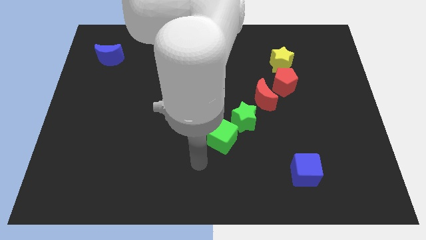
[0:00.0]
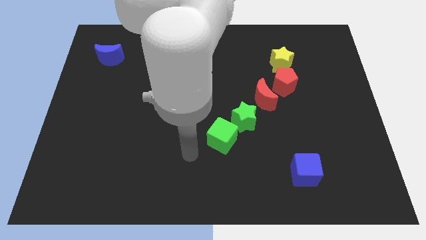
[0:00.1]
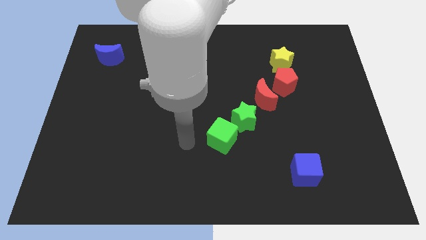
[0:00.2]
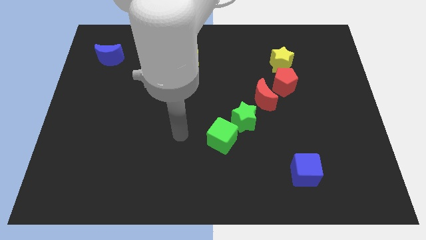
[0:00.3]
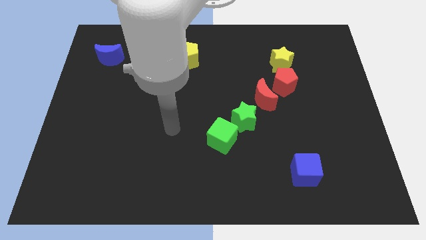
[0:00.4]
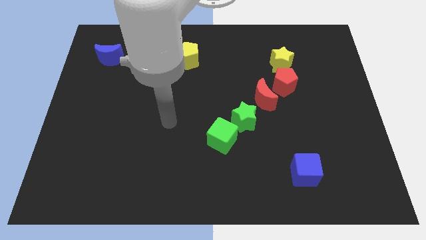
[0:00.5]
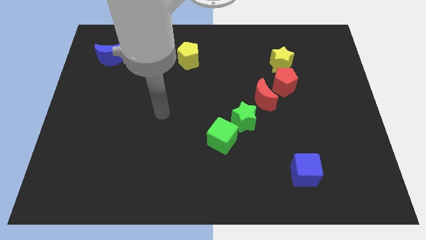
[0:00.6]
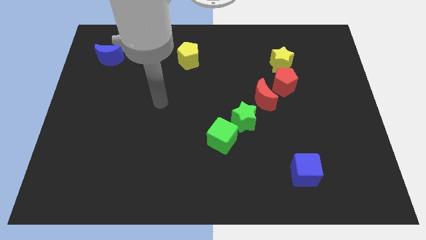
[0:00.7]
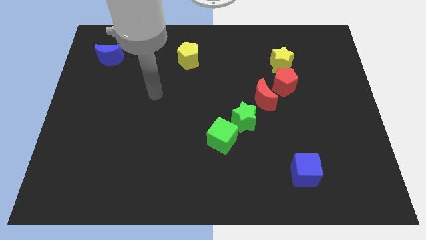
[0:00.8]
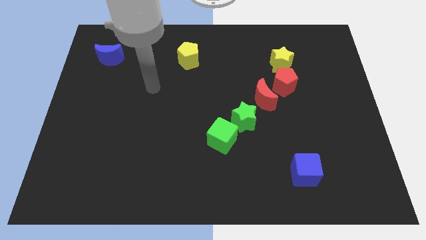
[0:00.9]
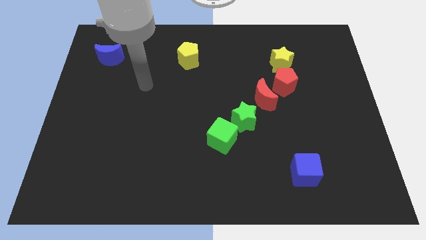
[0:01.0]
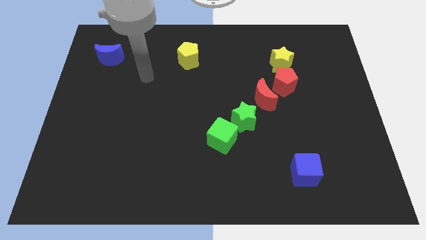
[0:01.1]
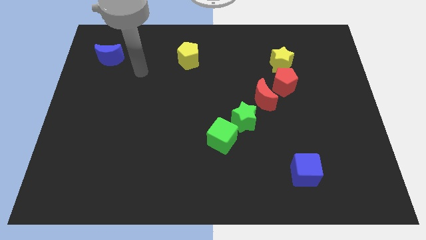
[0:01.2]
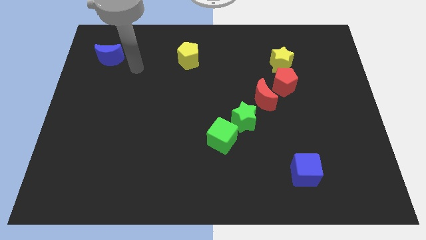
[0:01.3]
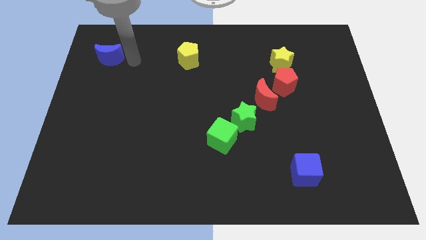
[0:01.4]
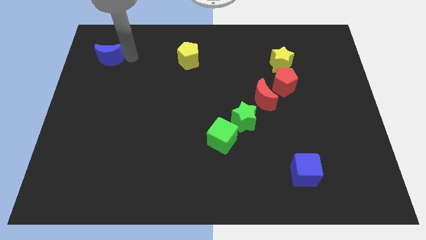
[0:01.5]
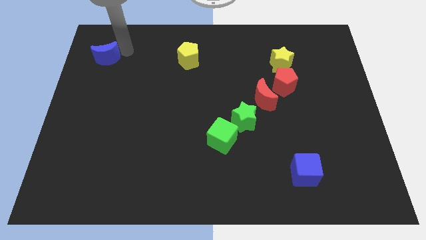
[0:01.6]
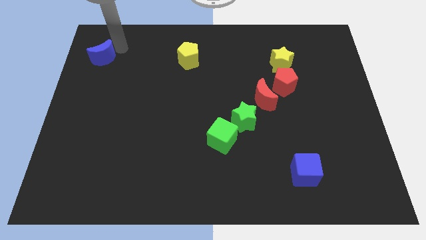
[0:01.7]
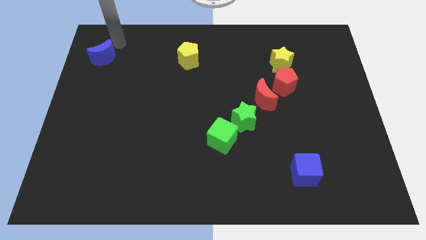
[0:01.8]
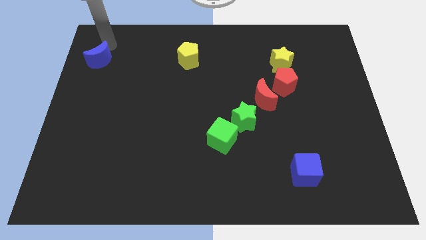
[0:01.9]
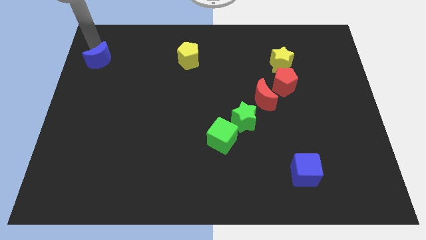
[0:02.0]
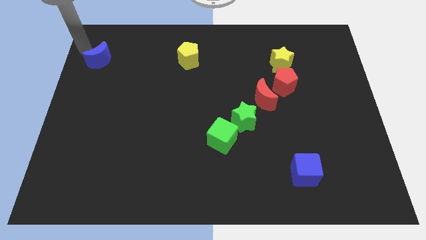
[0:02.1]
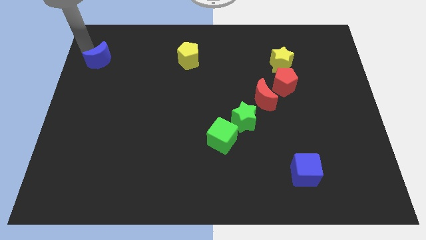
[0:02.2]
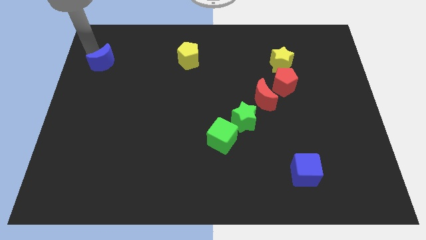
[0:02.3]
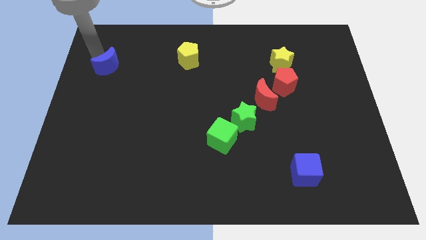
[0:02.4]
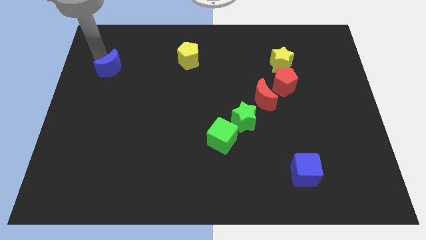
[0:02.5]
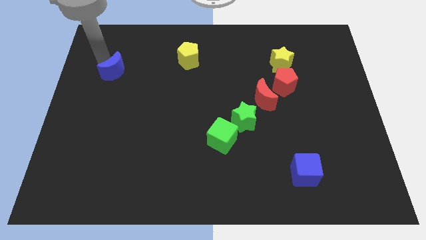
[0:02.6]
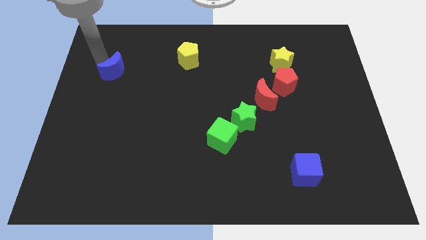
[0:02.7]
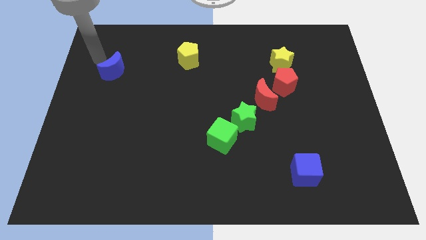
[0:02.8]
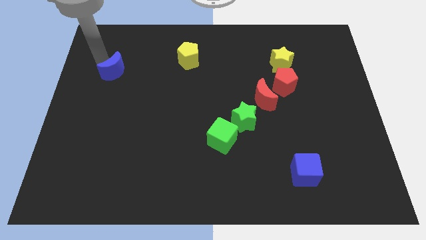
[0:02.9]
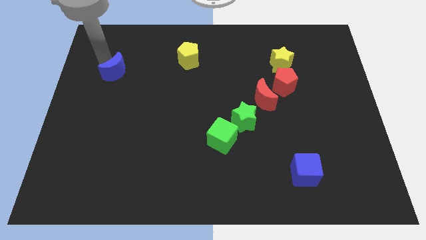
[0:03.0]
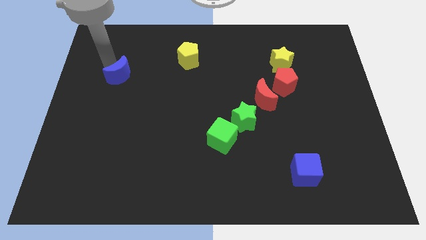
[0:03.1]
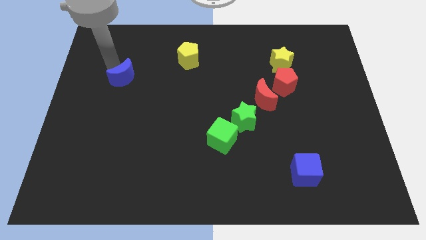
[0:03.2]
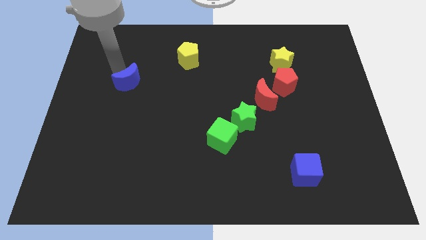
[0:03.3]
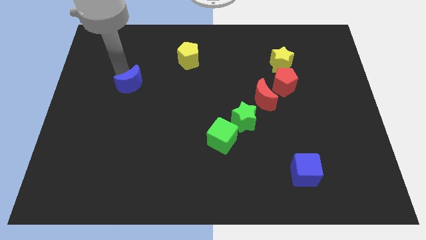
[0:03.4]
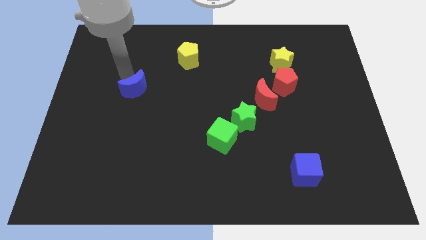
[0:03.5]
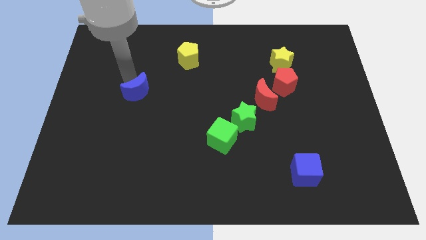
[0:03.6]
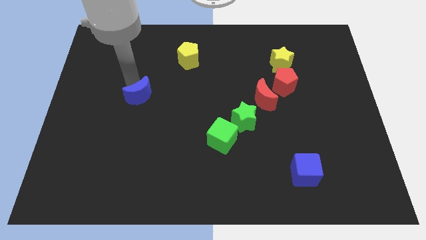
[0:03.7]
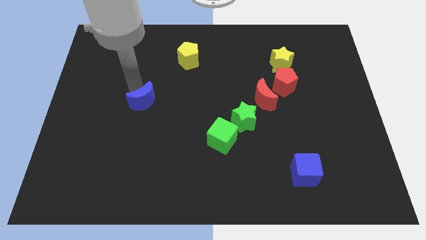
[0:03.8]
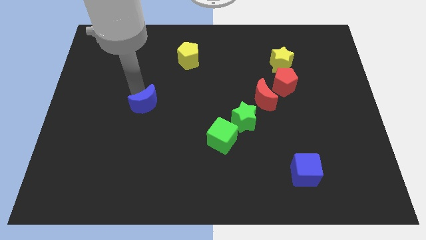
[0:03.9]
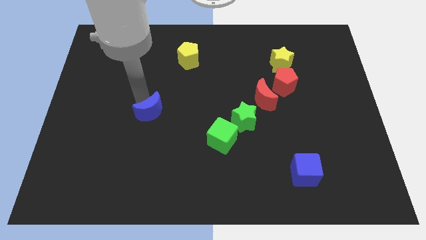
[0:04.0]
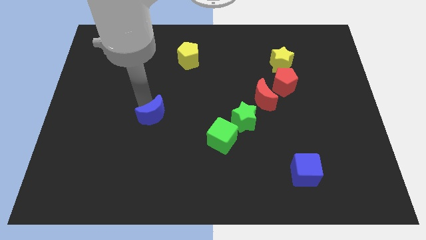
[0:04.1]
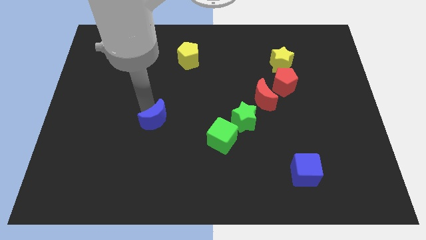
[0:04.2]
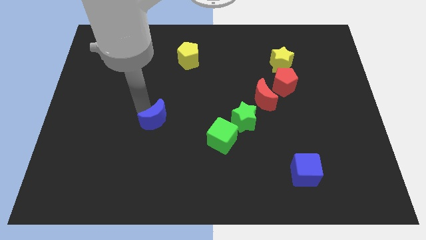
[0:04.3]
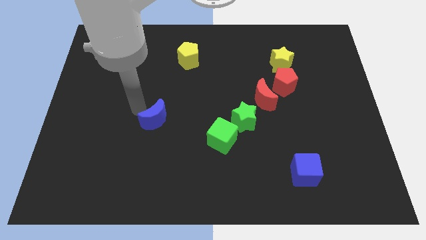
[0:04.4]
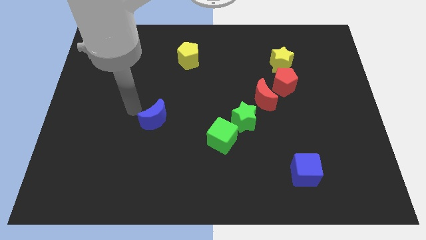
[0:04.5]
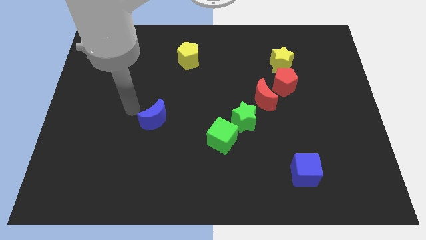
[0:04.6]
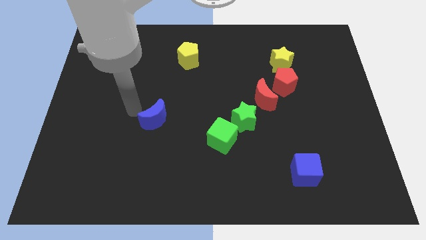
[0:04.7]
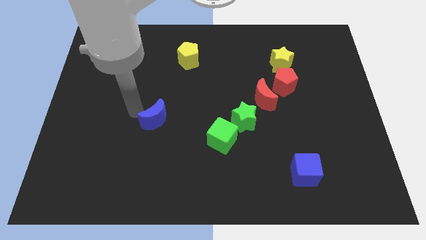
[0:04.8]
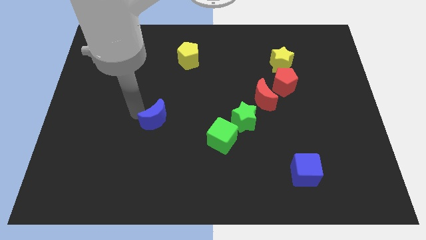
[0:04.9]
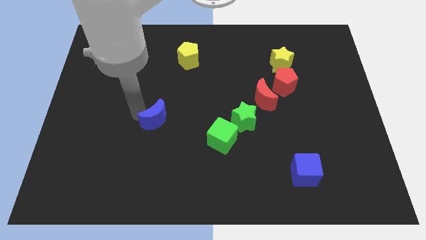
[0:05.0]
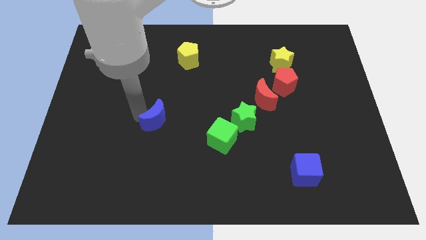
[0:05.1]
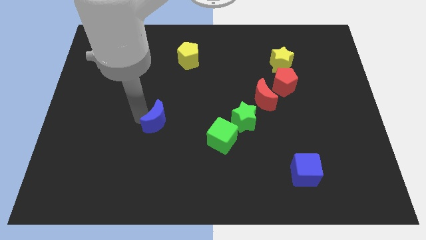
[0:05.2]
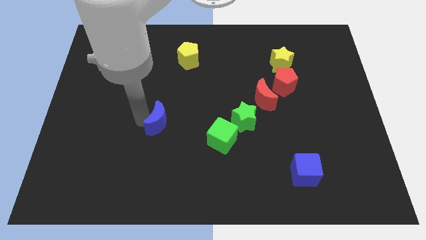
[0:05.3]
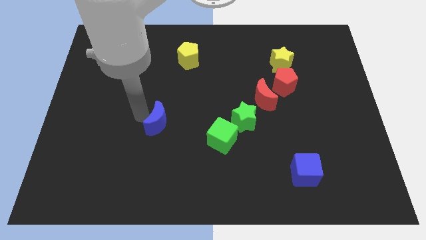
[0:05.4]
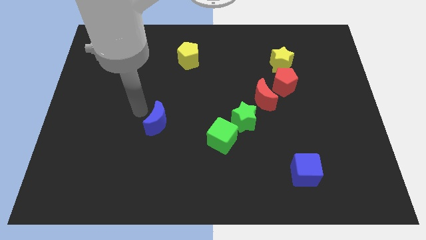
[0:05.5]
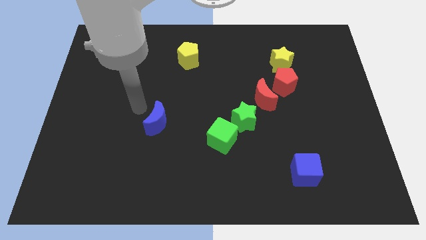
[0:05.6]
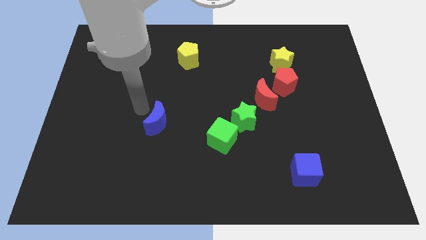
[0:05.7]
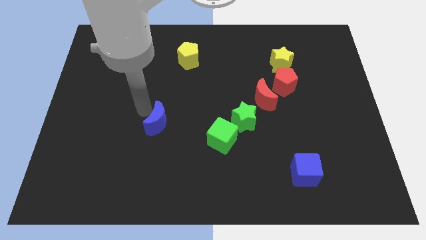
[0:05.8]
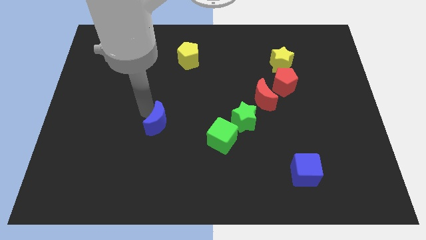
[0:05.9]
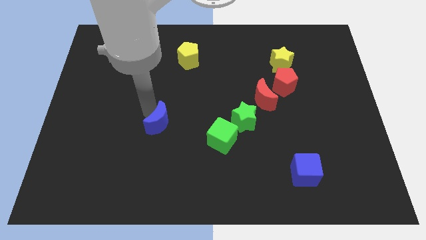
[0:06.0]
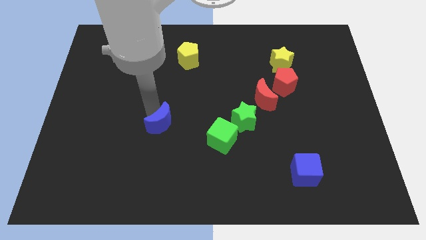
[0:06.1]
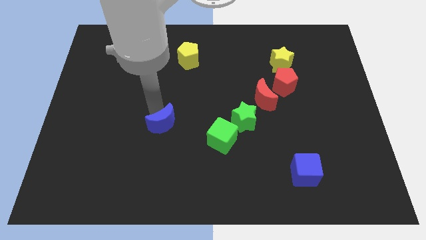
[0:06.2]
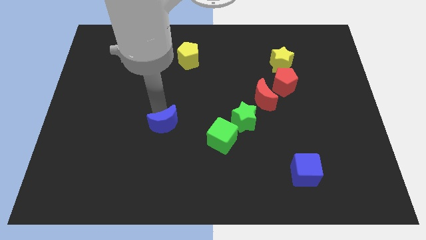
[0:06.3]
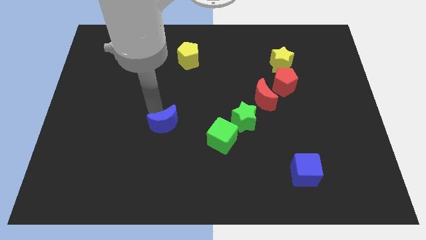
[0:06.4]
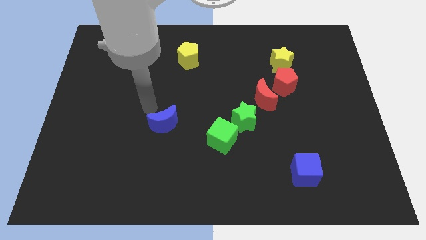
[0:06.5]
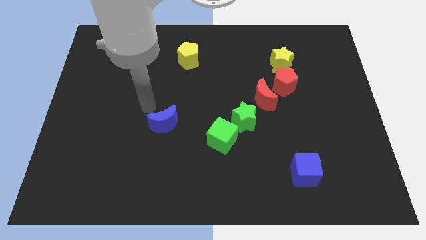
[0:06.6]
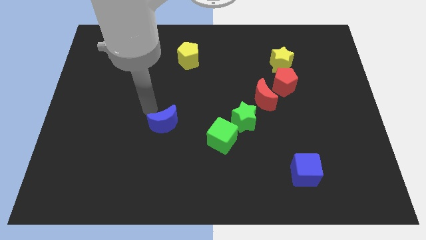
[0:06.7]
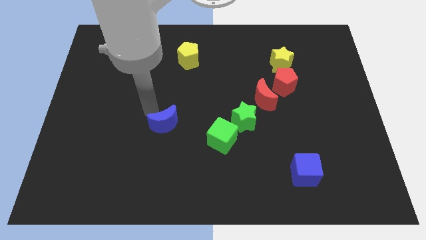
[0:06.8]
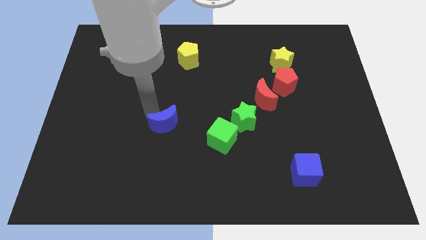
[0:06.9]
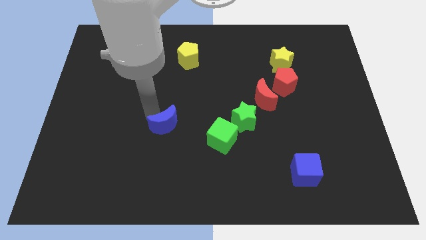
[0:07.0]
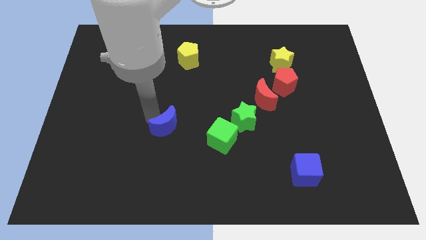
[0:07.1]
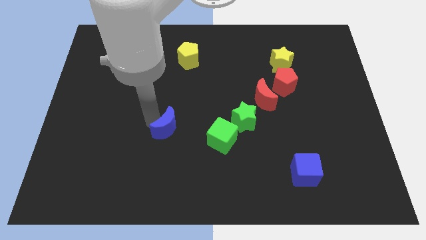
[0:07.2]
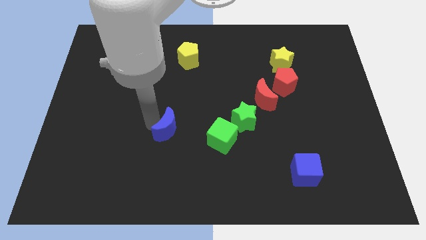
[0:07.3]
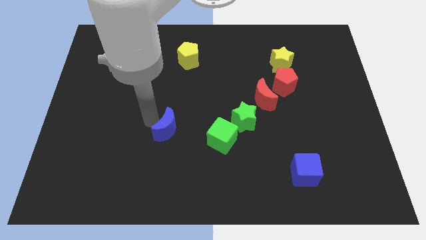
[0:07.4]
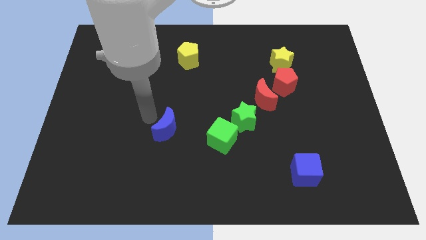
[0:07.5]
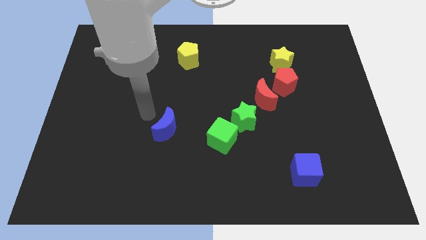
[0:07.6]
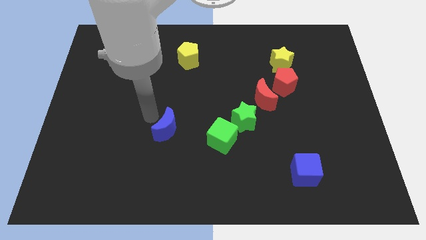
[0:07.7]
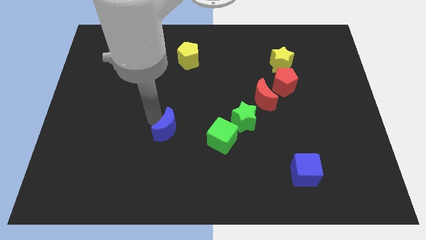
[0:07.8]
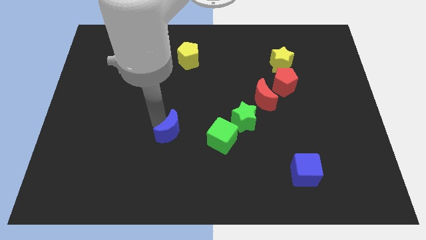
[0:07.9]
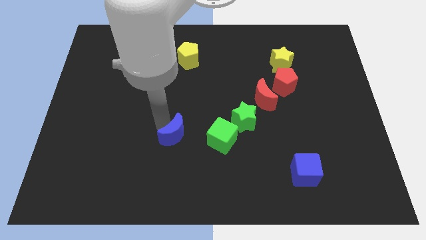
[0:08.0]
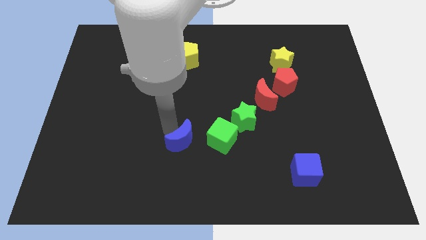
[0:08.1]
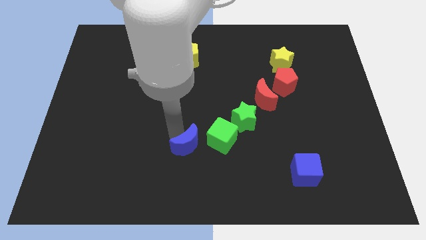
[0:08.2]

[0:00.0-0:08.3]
slide the blue moon diagonally down and to the left of the green cube
